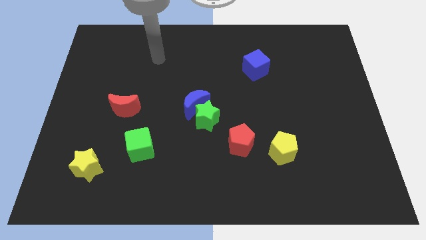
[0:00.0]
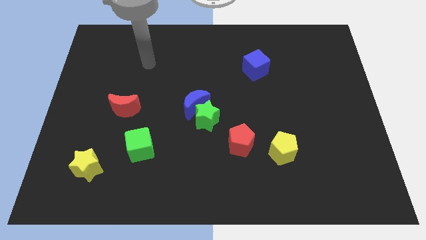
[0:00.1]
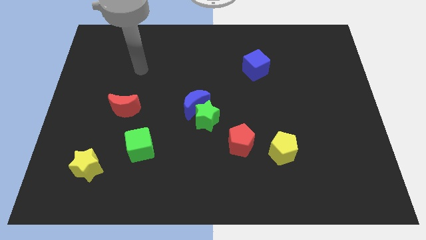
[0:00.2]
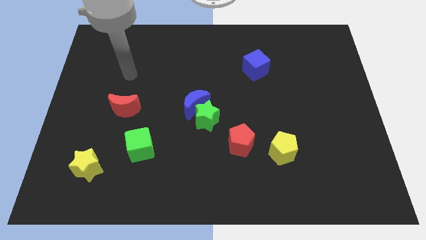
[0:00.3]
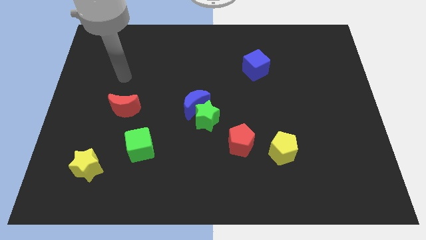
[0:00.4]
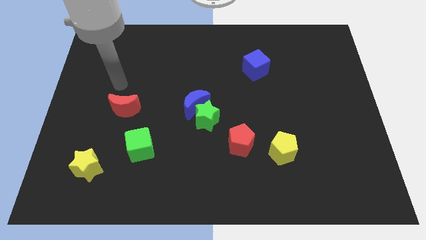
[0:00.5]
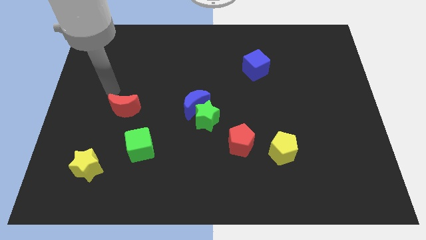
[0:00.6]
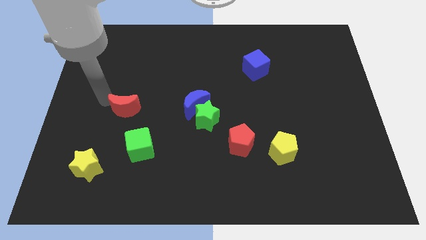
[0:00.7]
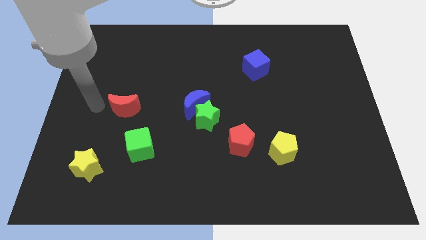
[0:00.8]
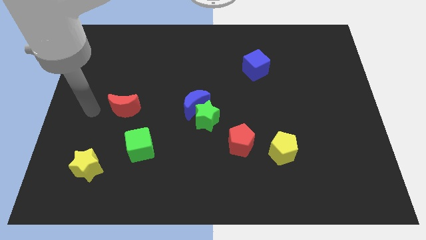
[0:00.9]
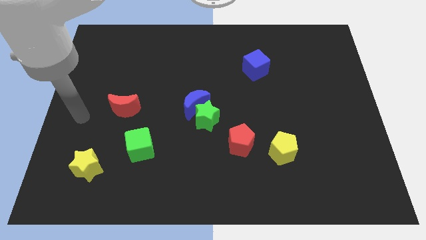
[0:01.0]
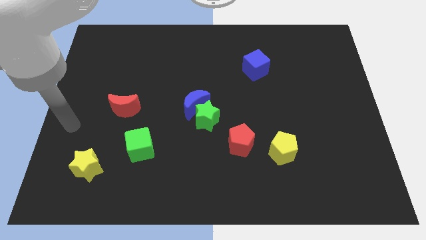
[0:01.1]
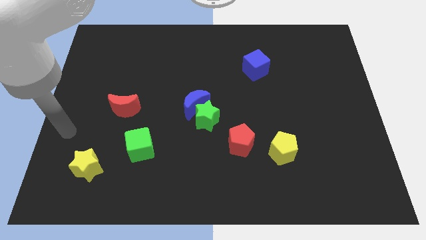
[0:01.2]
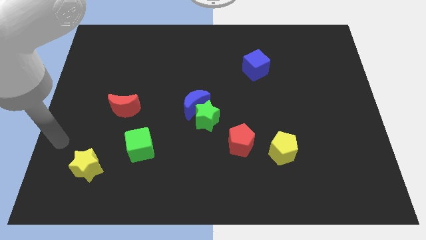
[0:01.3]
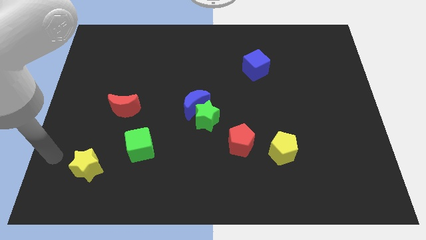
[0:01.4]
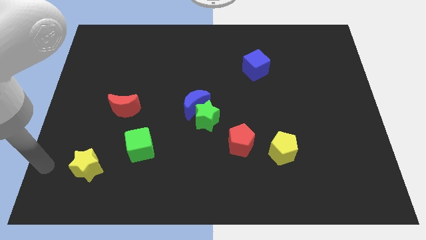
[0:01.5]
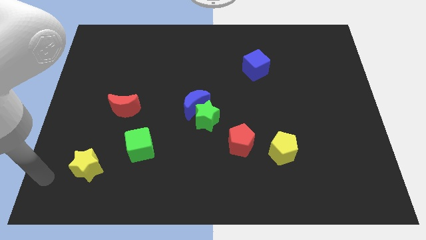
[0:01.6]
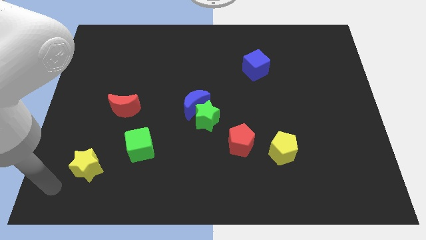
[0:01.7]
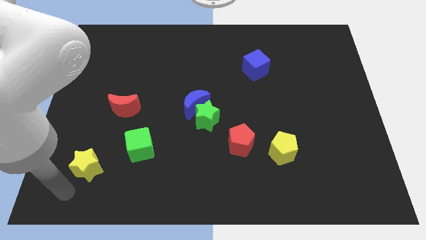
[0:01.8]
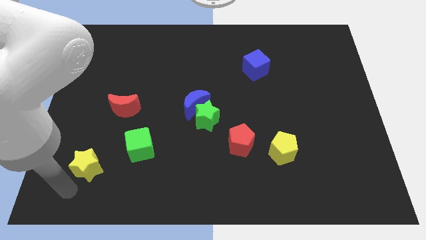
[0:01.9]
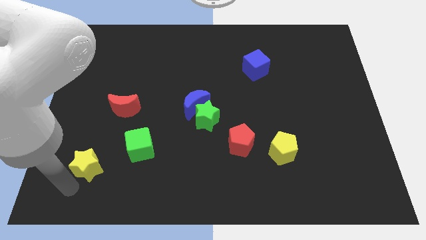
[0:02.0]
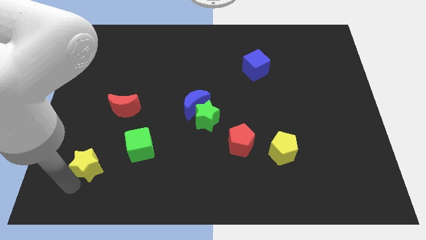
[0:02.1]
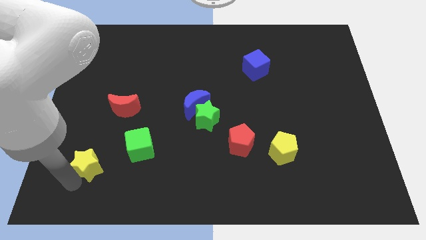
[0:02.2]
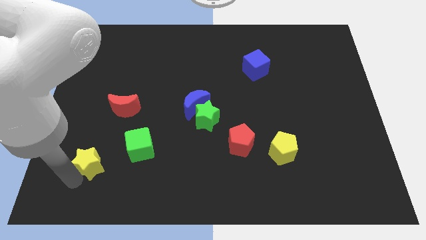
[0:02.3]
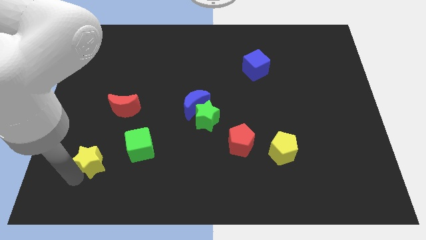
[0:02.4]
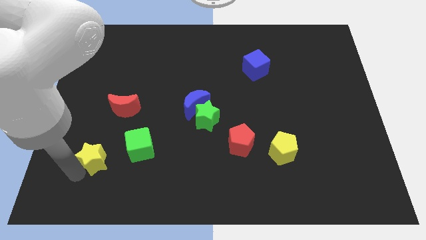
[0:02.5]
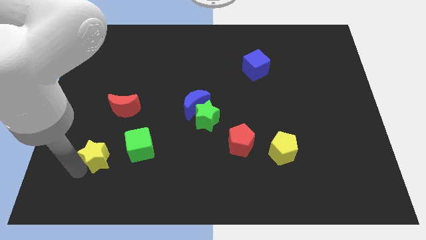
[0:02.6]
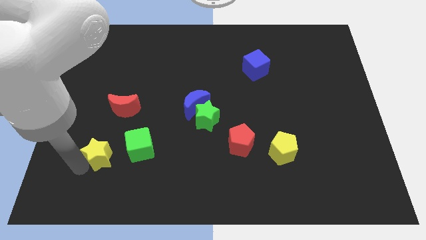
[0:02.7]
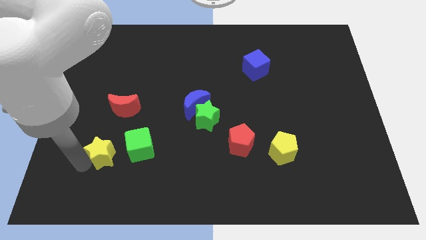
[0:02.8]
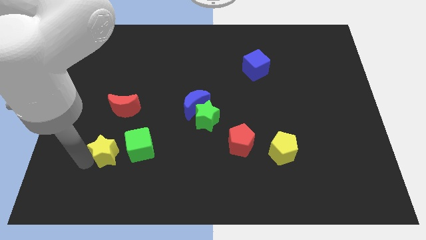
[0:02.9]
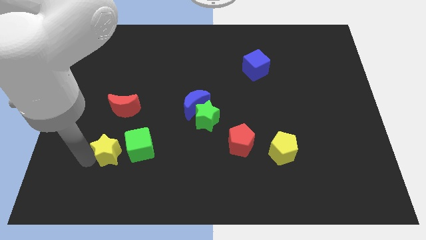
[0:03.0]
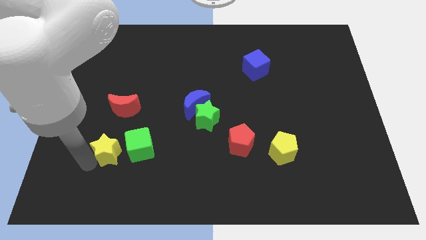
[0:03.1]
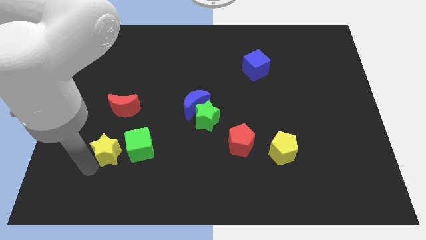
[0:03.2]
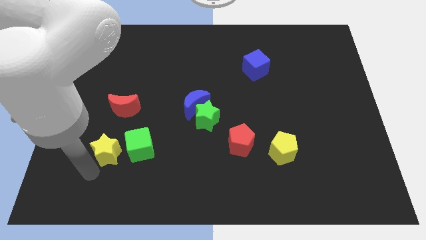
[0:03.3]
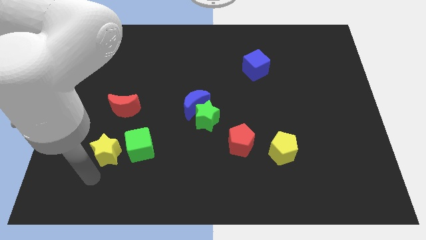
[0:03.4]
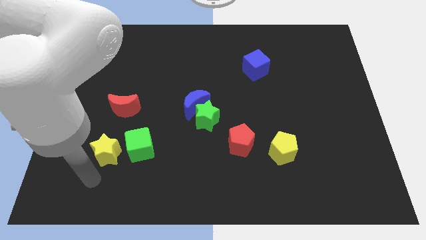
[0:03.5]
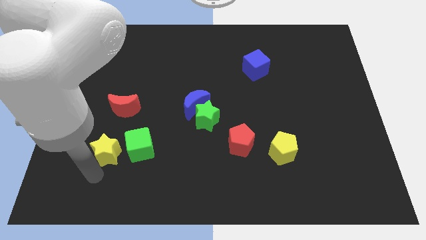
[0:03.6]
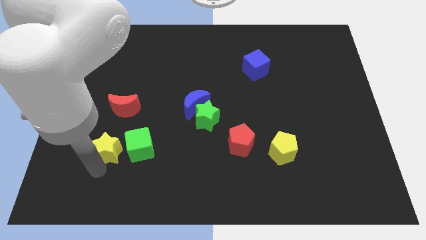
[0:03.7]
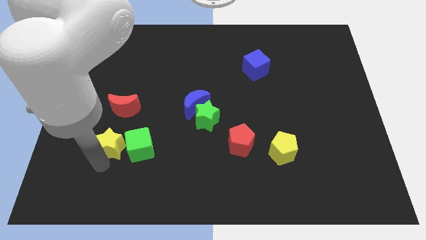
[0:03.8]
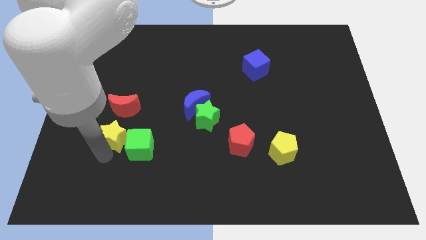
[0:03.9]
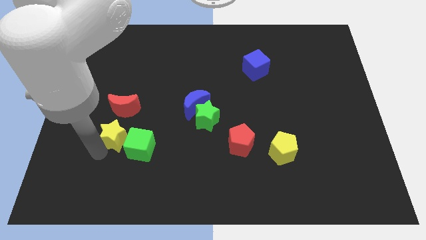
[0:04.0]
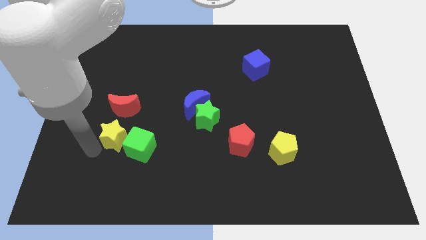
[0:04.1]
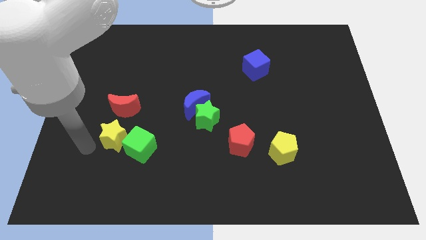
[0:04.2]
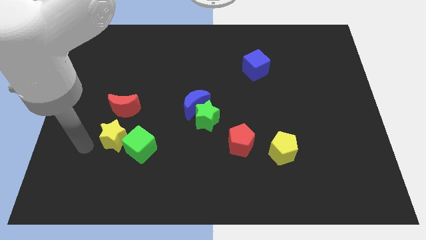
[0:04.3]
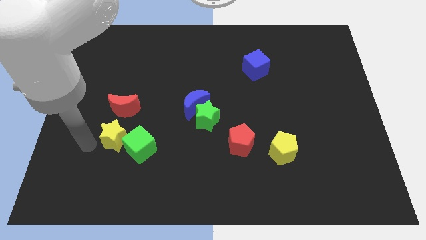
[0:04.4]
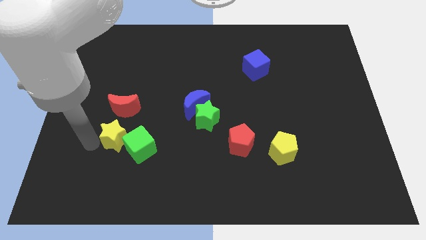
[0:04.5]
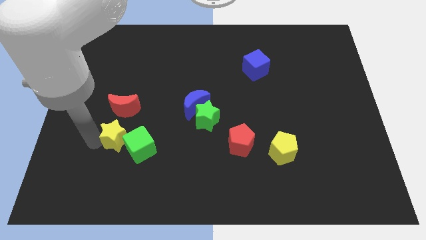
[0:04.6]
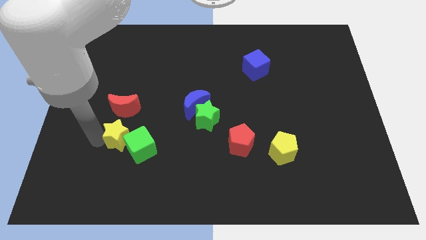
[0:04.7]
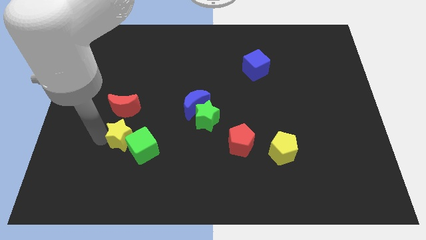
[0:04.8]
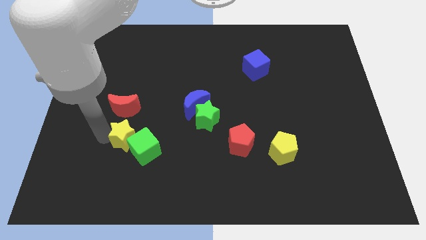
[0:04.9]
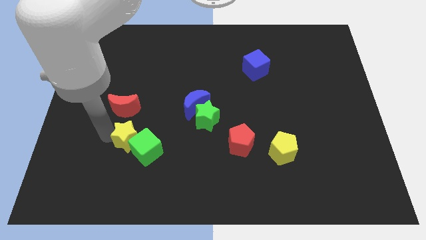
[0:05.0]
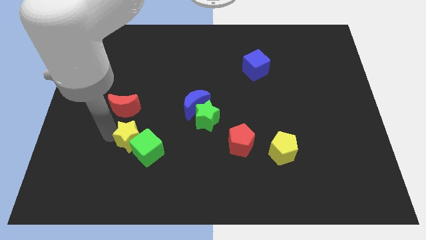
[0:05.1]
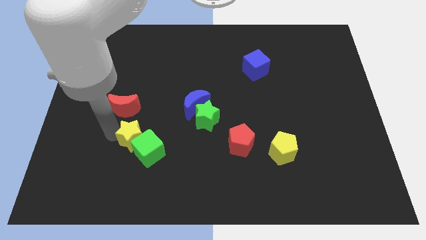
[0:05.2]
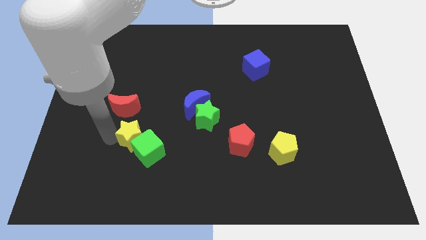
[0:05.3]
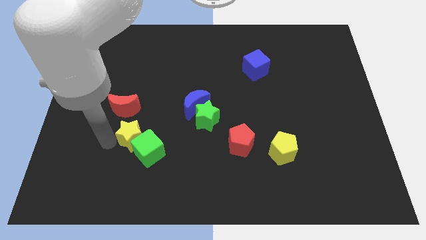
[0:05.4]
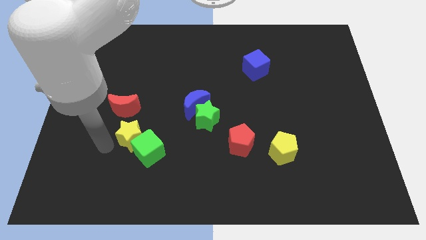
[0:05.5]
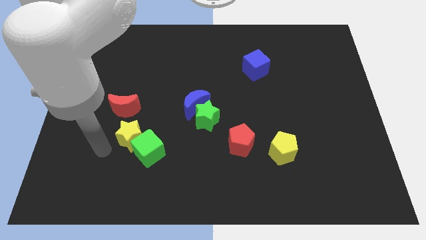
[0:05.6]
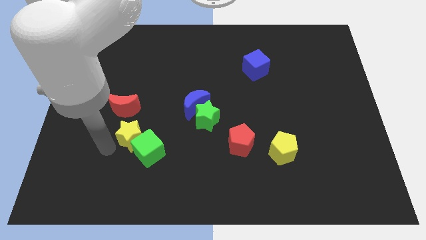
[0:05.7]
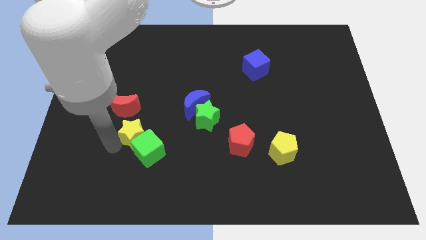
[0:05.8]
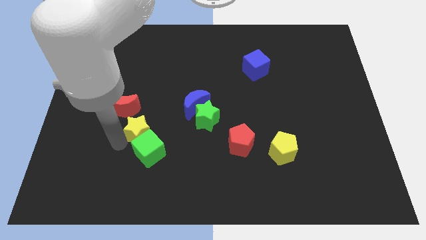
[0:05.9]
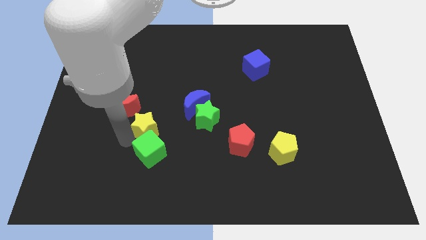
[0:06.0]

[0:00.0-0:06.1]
move the yellow star to the left of the green star

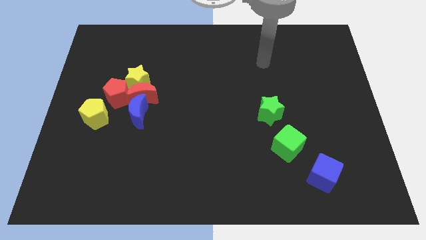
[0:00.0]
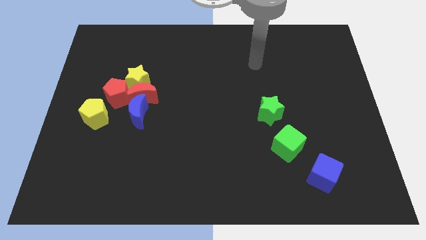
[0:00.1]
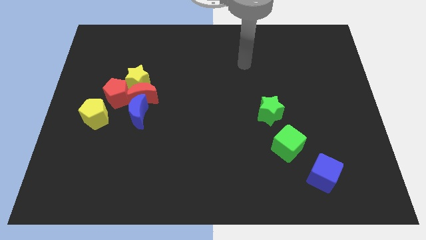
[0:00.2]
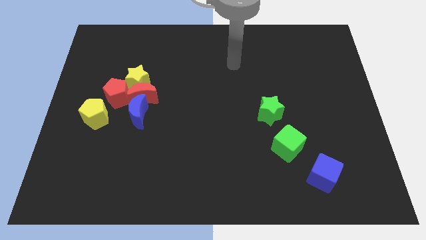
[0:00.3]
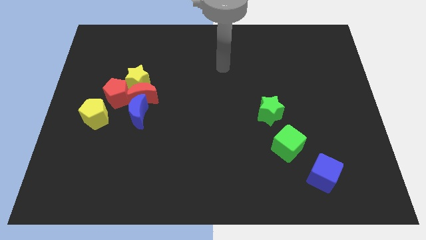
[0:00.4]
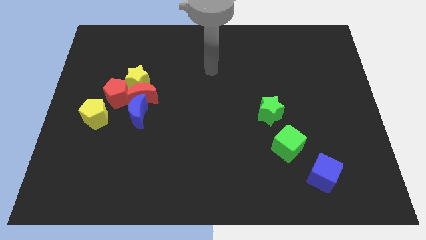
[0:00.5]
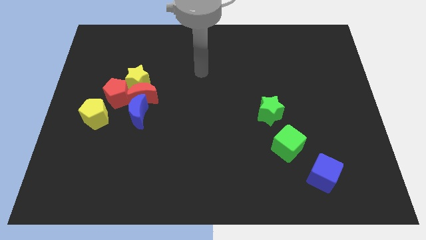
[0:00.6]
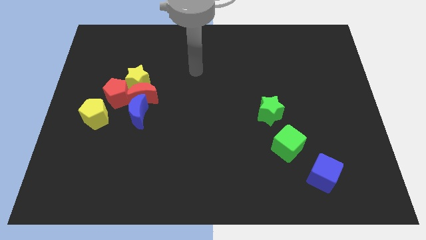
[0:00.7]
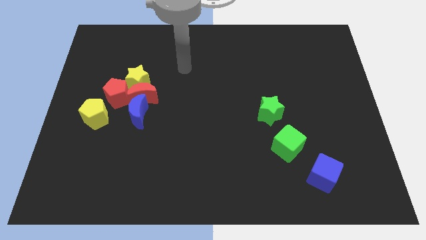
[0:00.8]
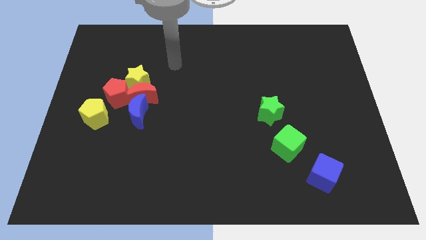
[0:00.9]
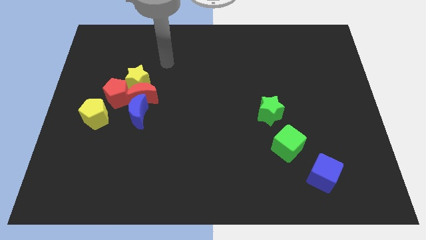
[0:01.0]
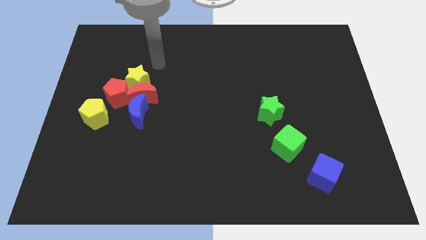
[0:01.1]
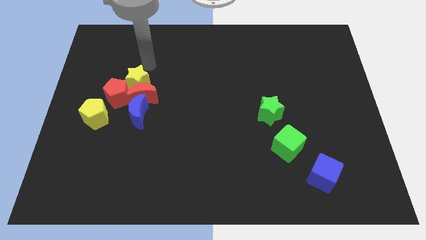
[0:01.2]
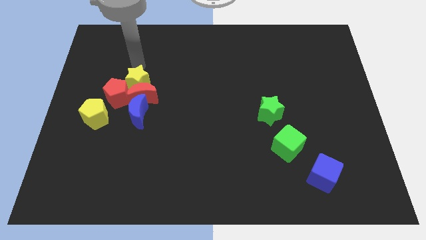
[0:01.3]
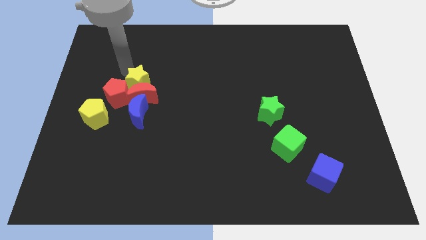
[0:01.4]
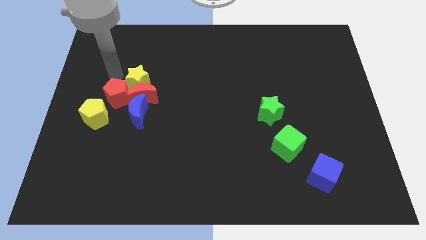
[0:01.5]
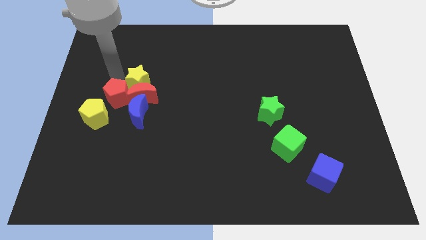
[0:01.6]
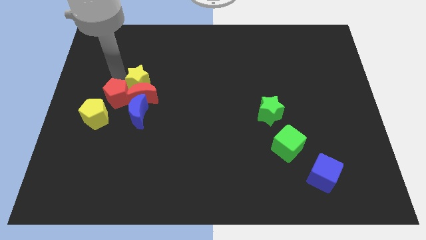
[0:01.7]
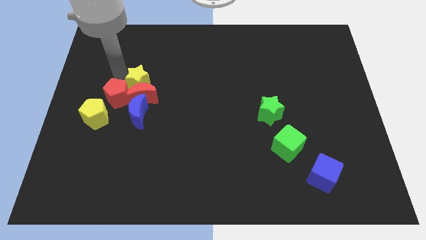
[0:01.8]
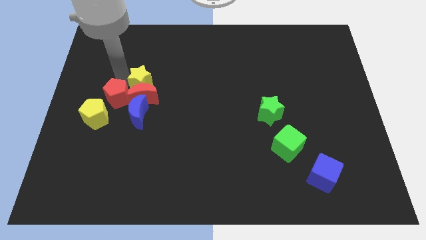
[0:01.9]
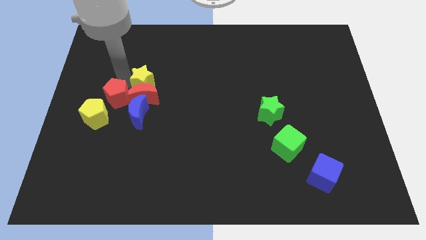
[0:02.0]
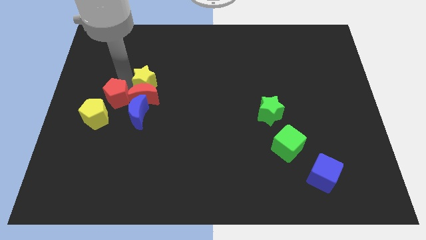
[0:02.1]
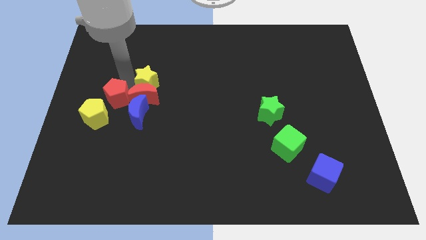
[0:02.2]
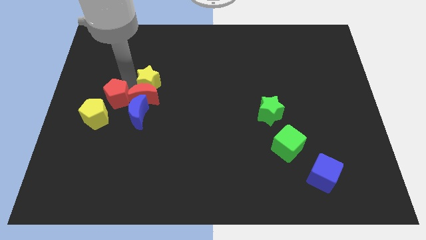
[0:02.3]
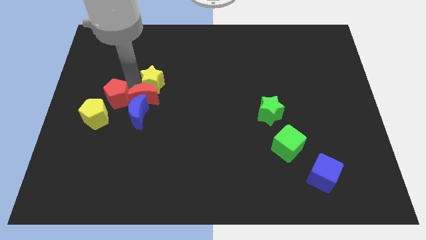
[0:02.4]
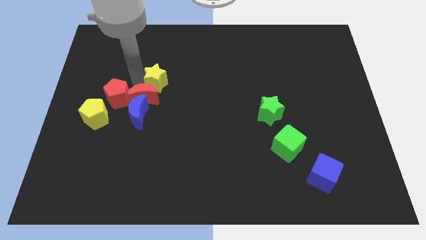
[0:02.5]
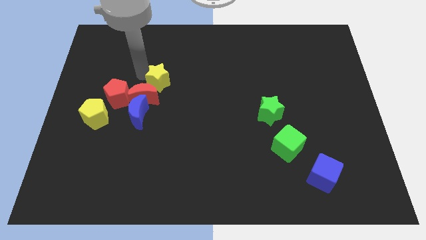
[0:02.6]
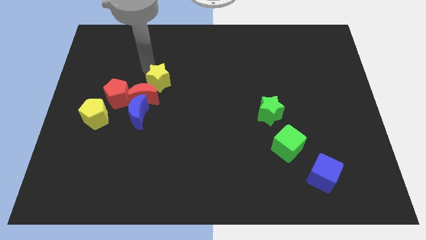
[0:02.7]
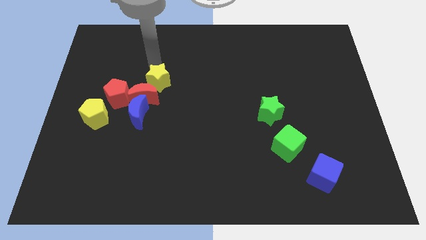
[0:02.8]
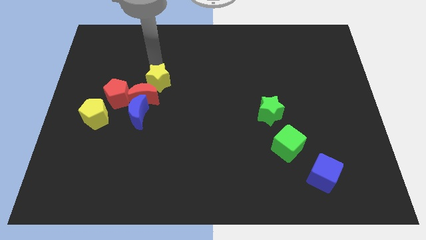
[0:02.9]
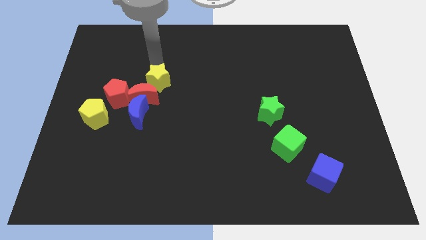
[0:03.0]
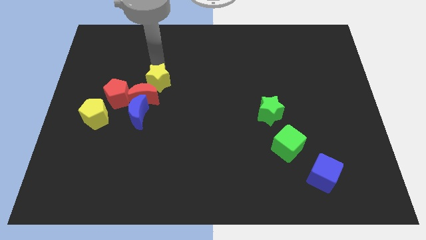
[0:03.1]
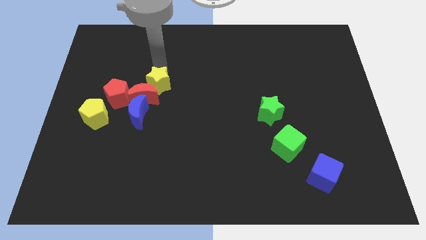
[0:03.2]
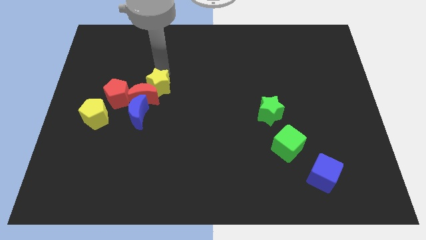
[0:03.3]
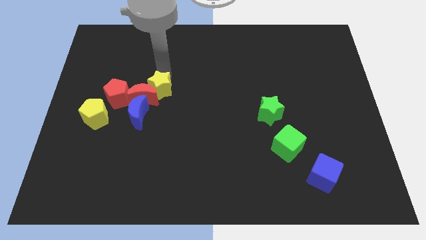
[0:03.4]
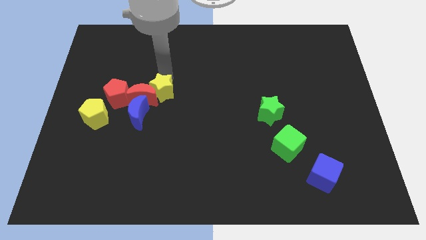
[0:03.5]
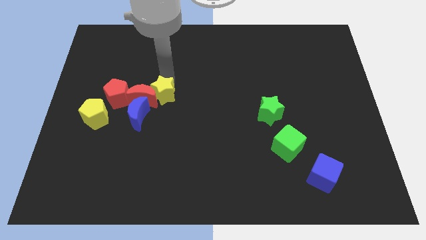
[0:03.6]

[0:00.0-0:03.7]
move the yellow star diagonally down and to the right of the red moon
